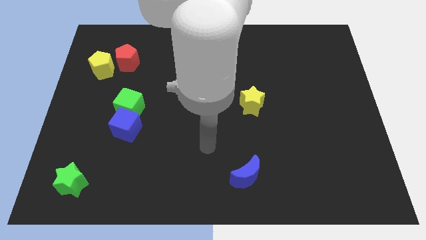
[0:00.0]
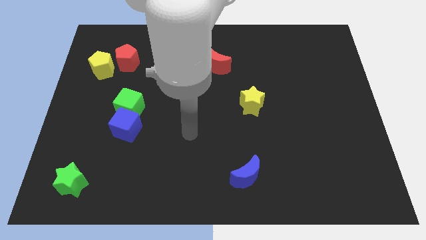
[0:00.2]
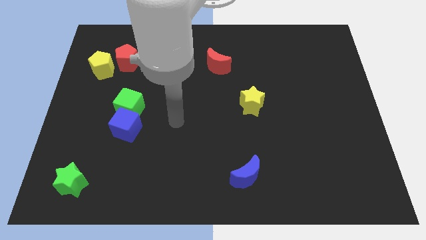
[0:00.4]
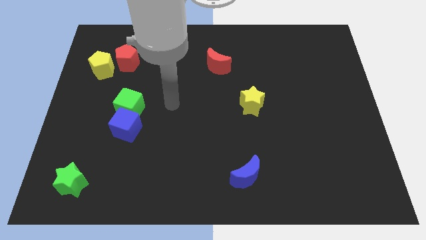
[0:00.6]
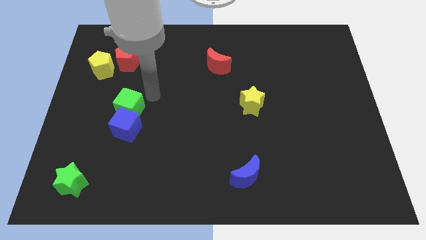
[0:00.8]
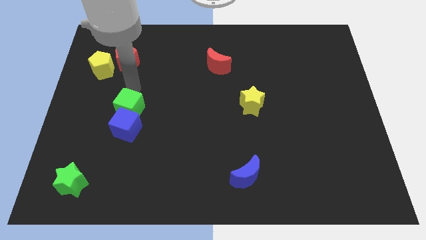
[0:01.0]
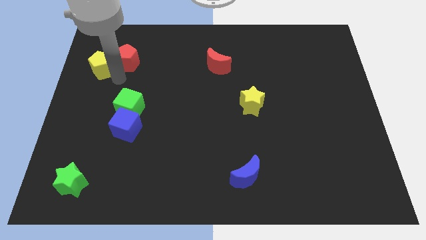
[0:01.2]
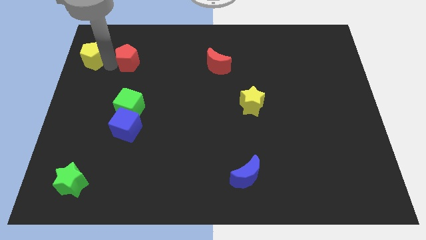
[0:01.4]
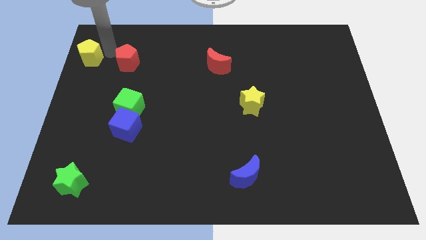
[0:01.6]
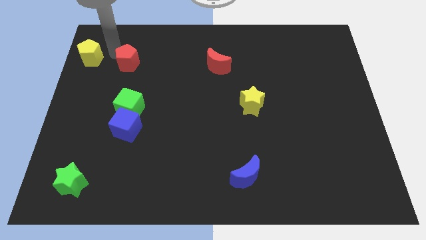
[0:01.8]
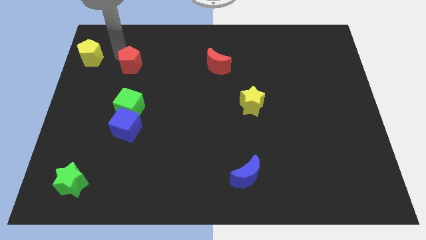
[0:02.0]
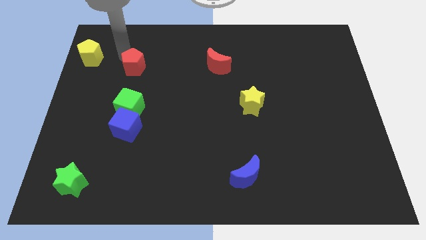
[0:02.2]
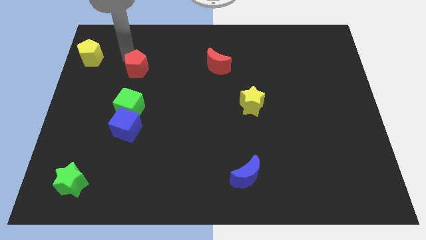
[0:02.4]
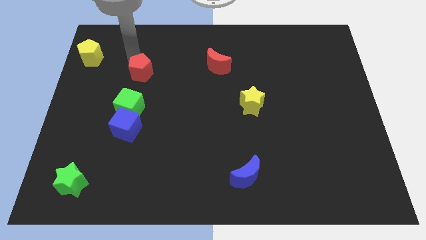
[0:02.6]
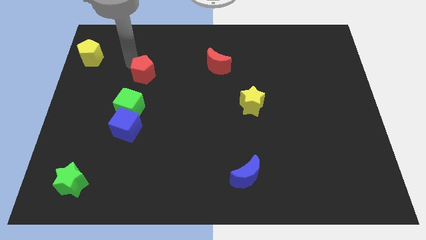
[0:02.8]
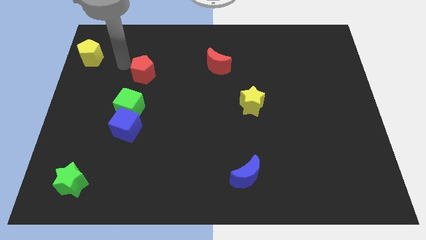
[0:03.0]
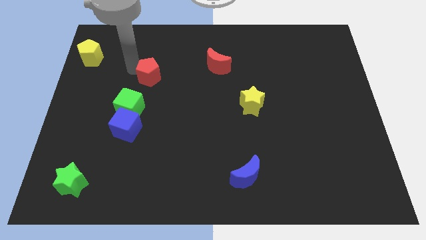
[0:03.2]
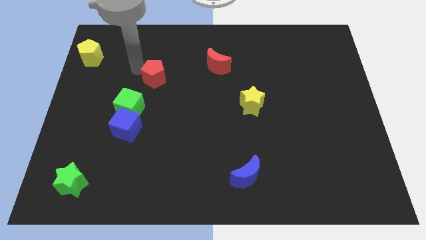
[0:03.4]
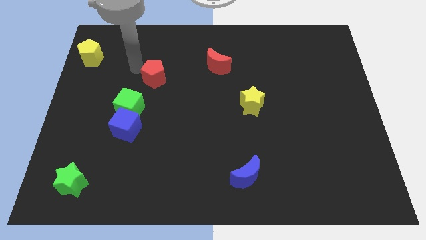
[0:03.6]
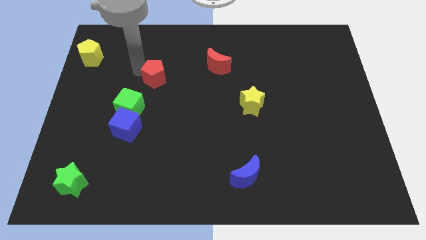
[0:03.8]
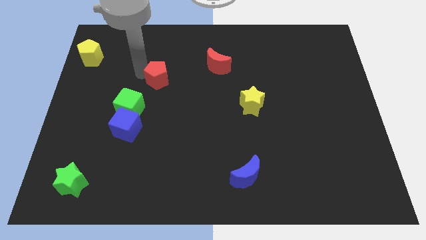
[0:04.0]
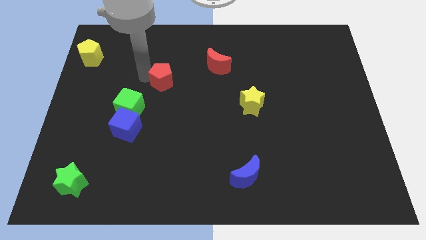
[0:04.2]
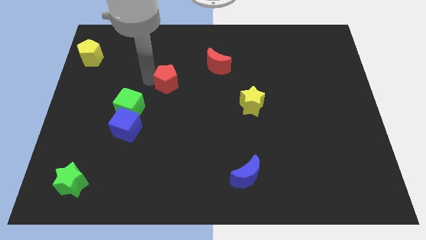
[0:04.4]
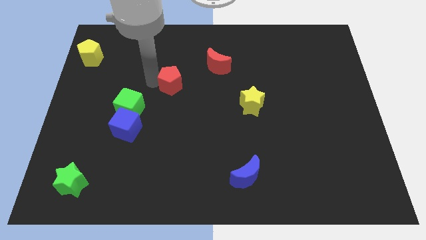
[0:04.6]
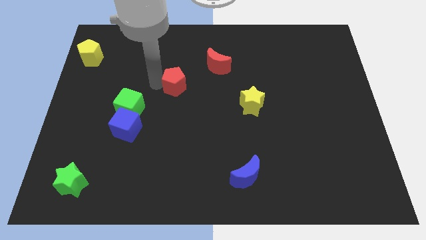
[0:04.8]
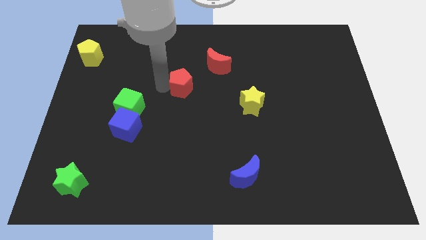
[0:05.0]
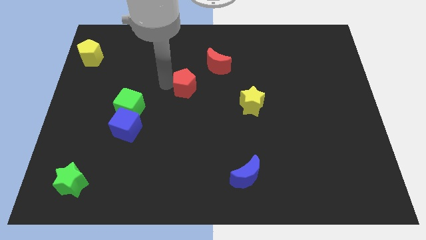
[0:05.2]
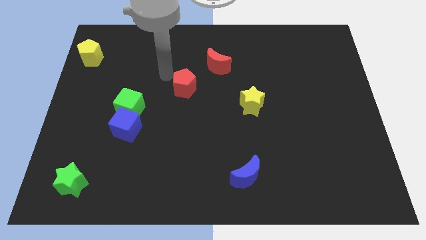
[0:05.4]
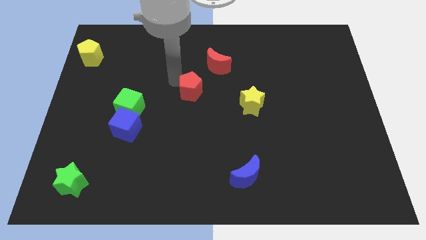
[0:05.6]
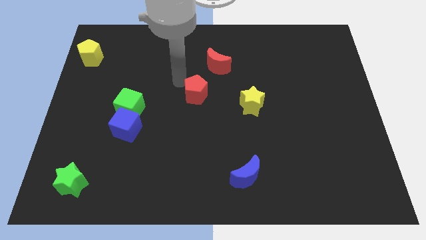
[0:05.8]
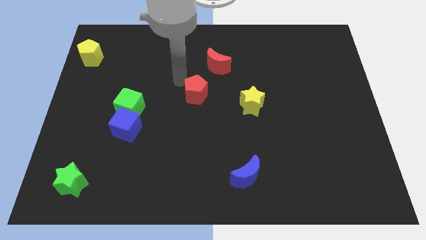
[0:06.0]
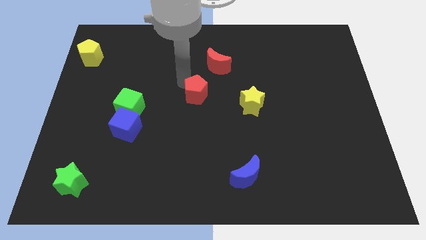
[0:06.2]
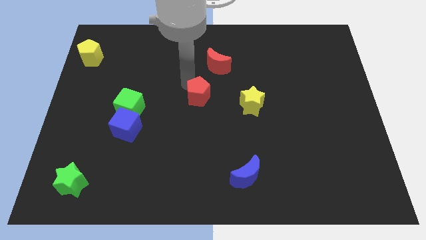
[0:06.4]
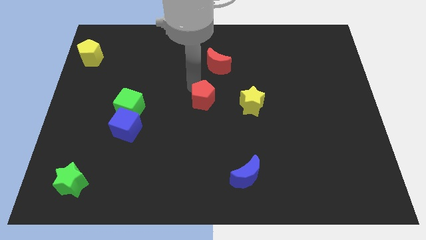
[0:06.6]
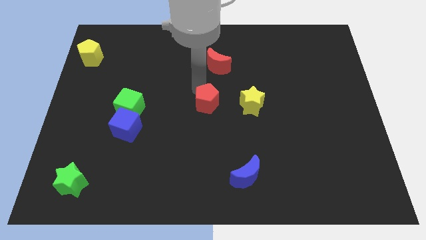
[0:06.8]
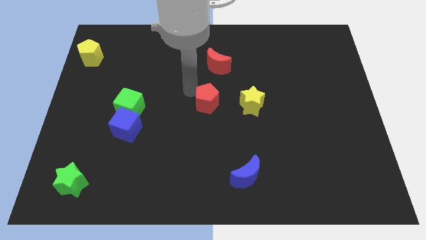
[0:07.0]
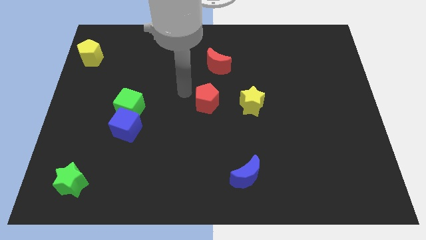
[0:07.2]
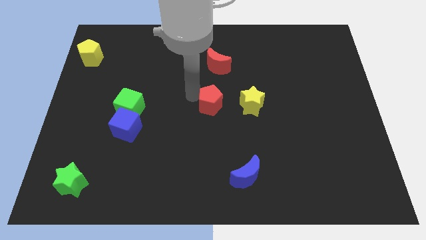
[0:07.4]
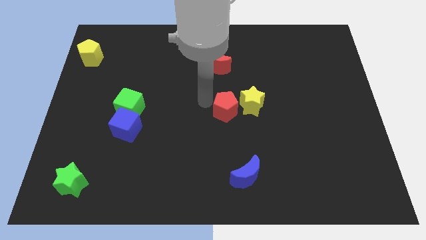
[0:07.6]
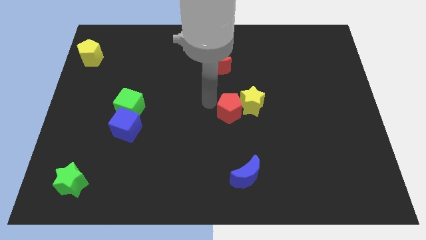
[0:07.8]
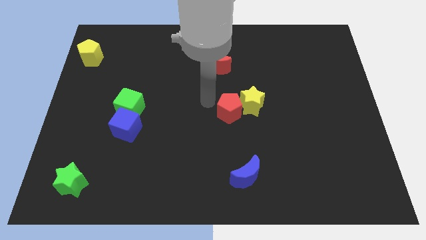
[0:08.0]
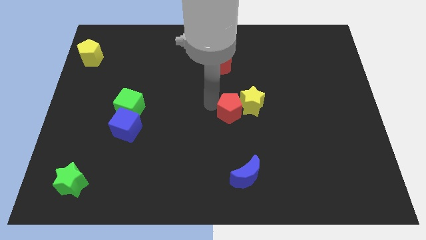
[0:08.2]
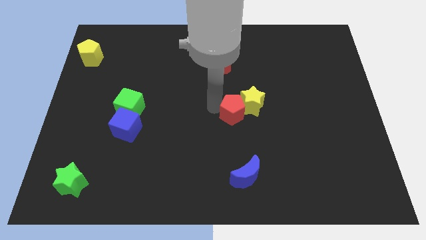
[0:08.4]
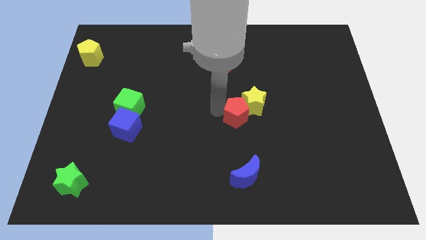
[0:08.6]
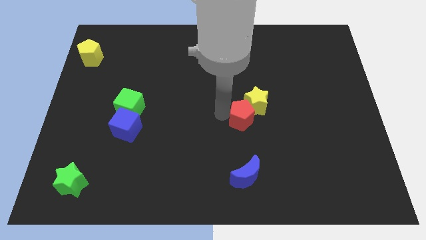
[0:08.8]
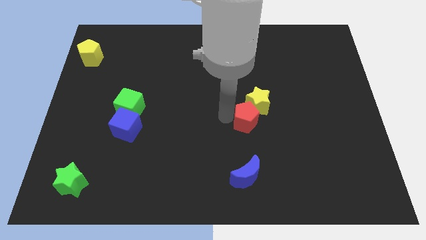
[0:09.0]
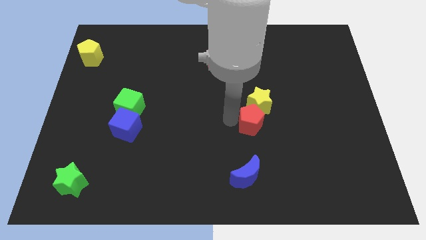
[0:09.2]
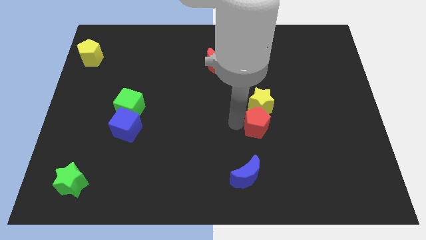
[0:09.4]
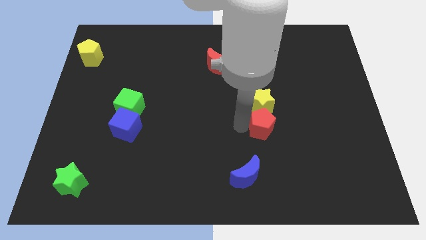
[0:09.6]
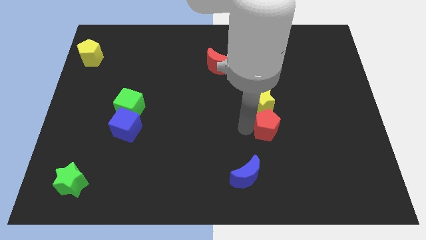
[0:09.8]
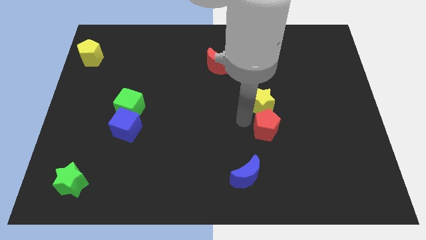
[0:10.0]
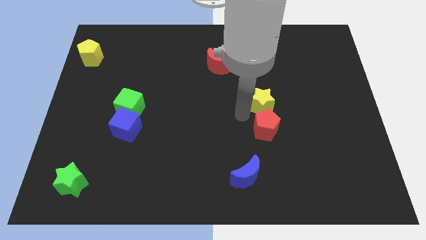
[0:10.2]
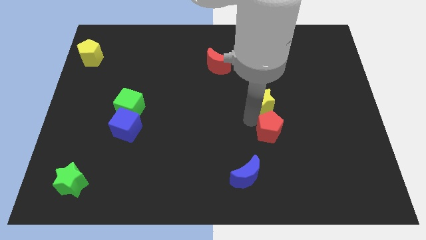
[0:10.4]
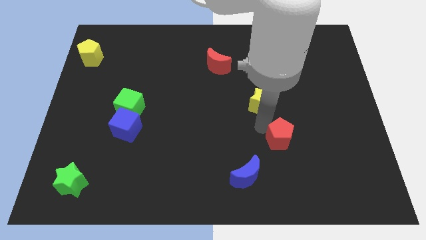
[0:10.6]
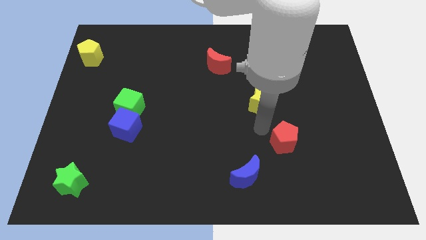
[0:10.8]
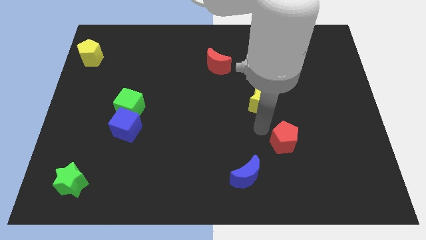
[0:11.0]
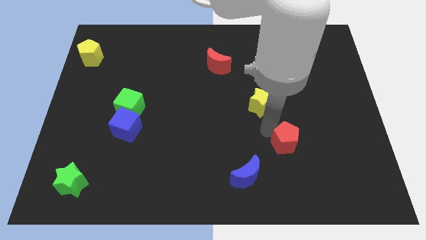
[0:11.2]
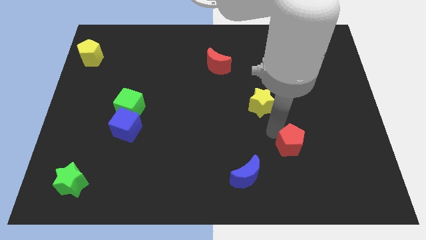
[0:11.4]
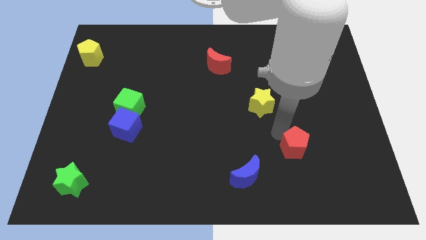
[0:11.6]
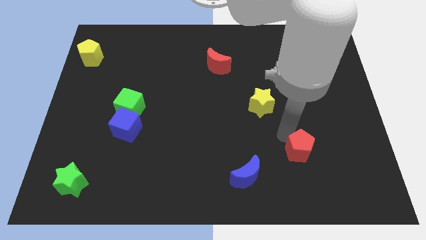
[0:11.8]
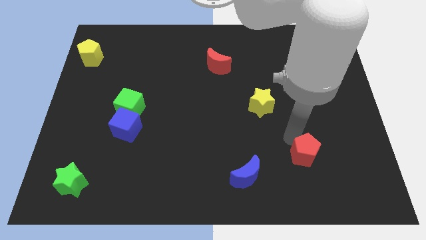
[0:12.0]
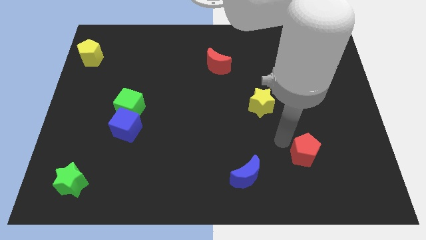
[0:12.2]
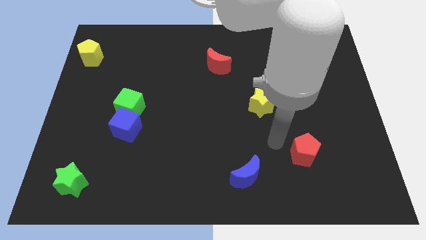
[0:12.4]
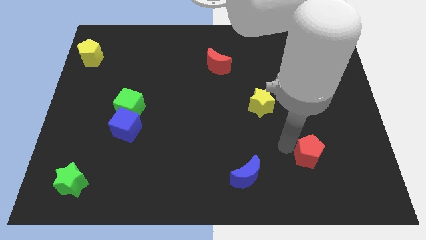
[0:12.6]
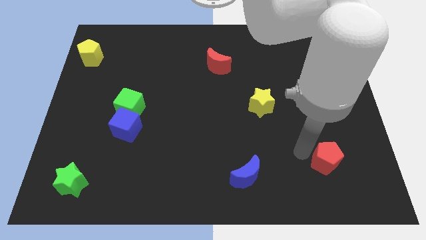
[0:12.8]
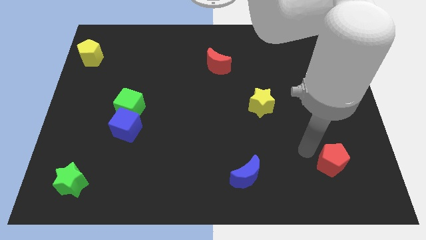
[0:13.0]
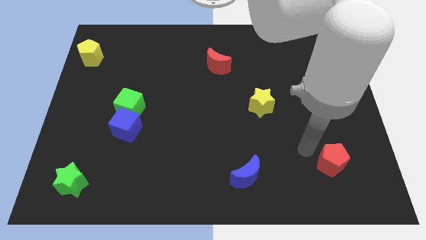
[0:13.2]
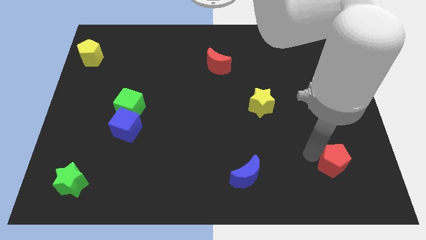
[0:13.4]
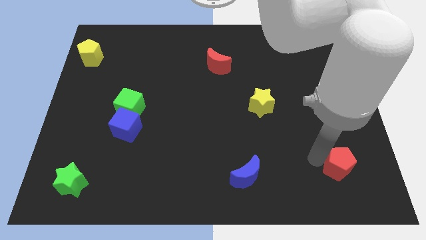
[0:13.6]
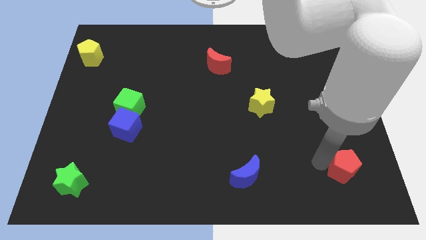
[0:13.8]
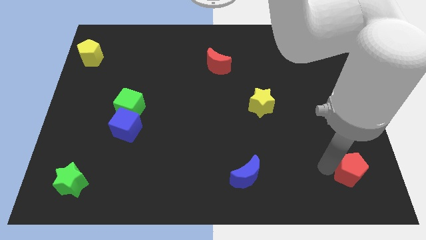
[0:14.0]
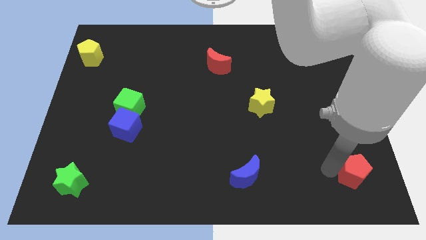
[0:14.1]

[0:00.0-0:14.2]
push the red pentagon to the bottom right corner
